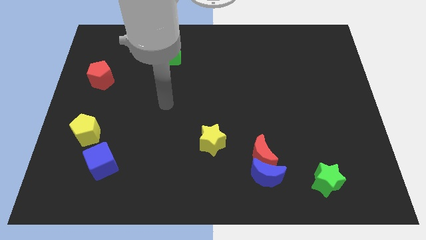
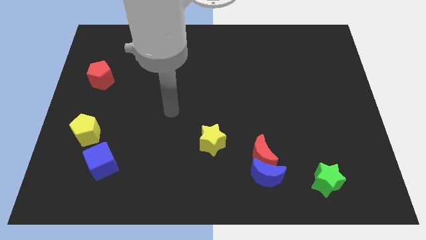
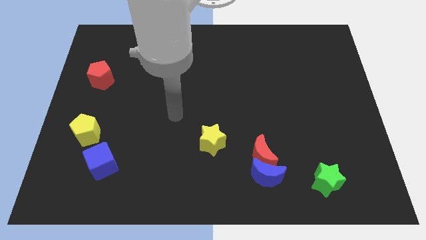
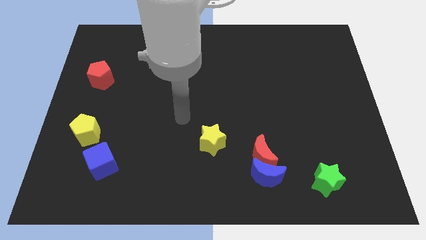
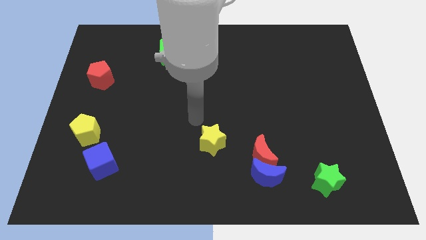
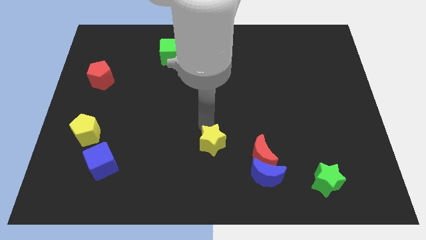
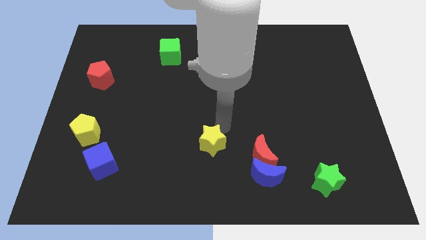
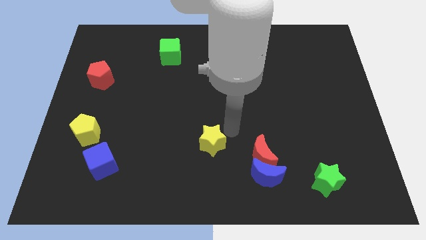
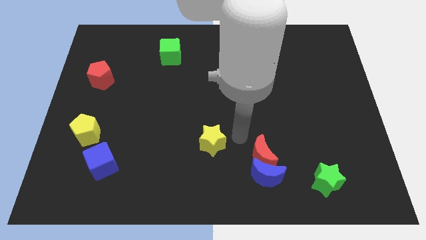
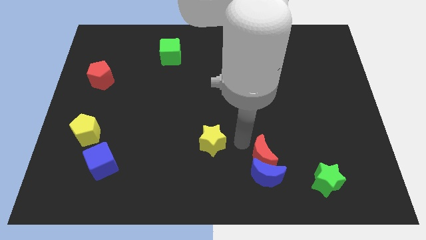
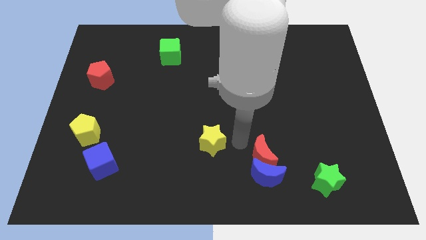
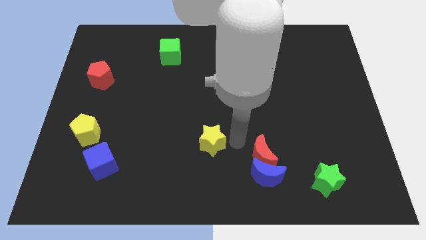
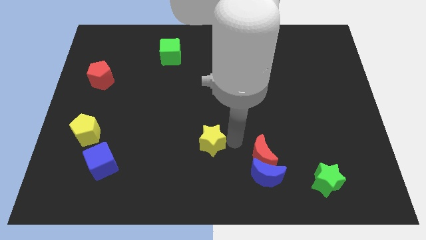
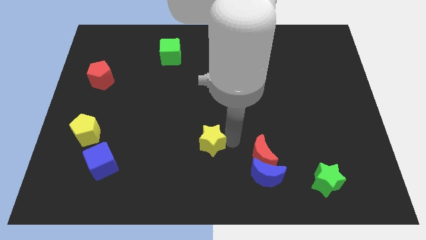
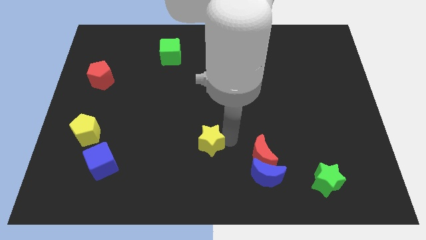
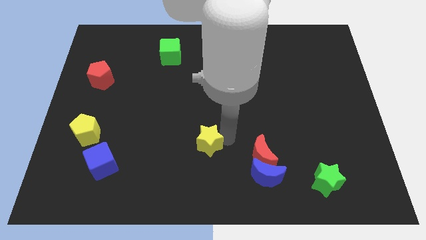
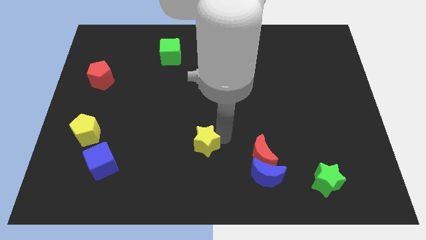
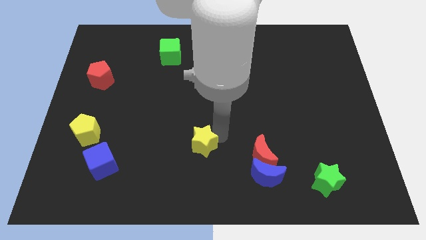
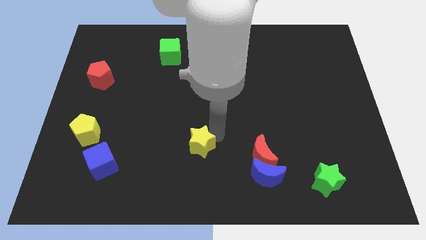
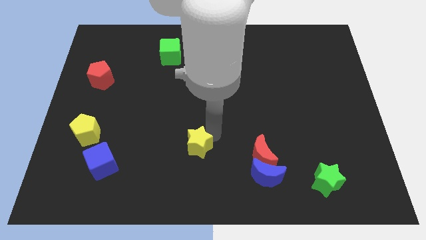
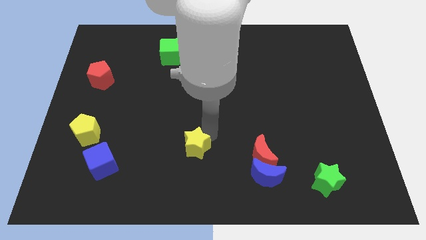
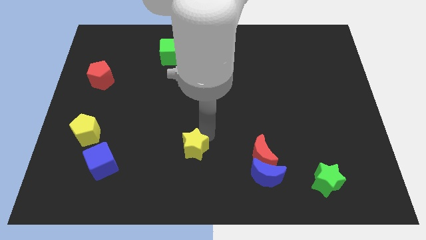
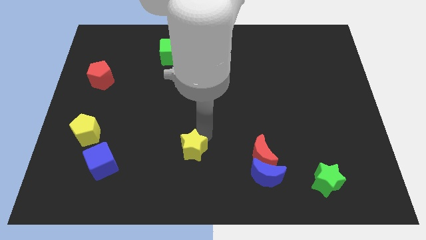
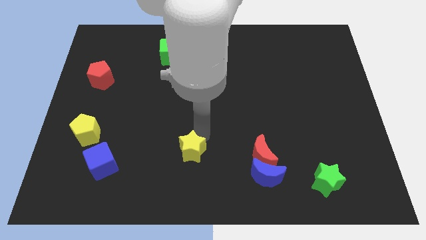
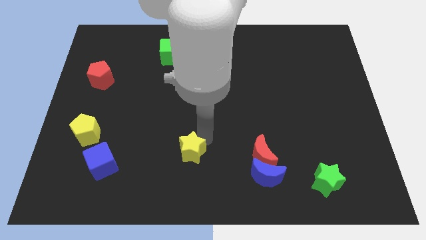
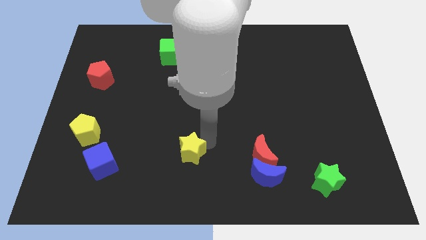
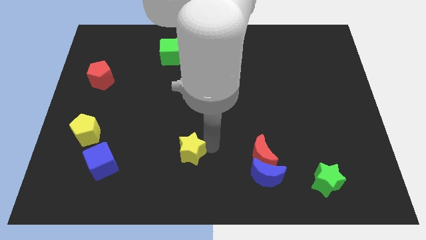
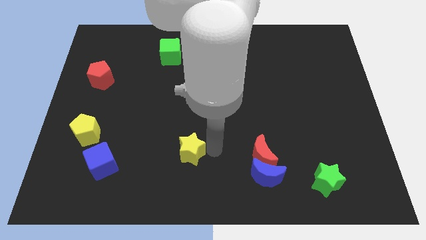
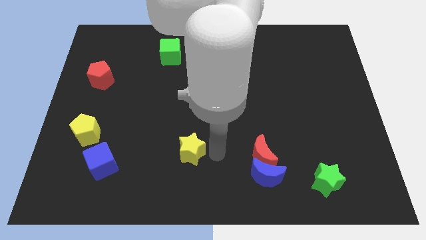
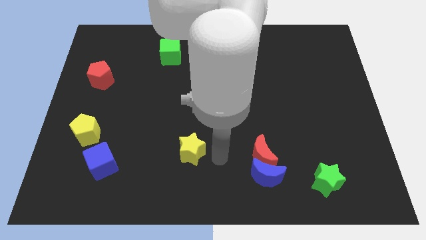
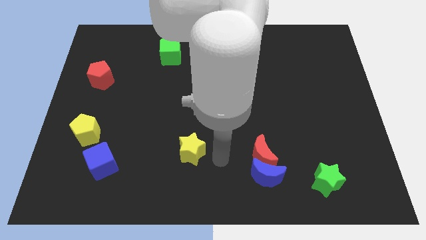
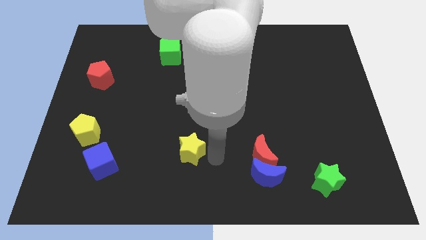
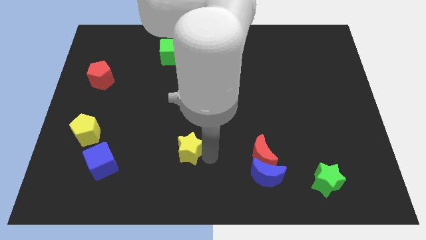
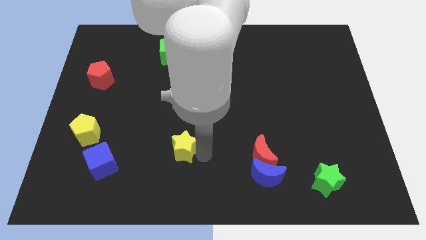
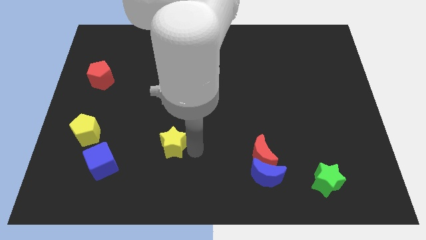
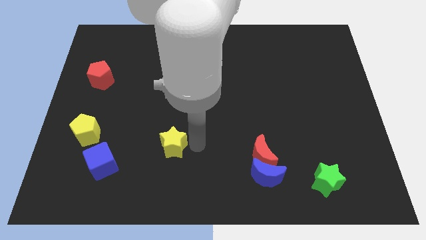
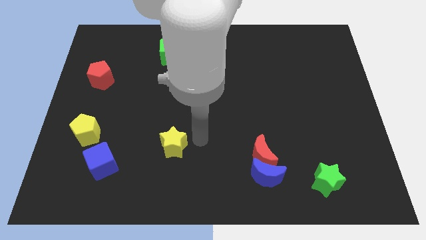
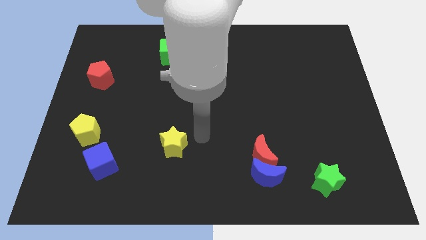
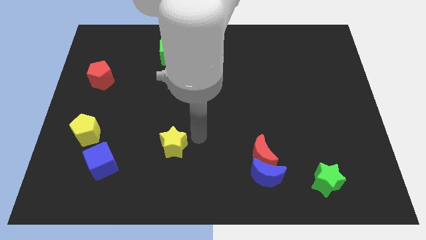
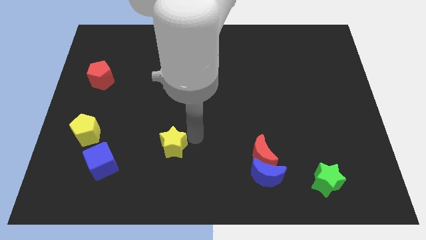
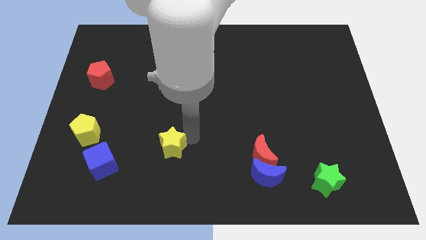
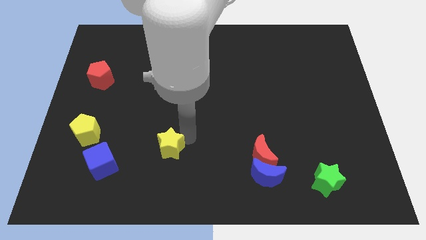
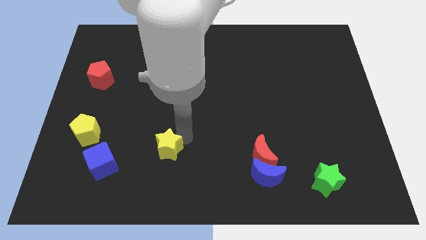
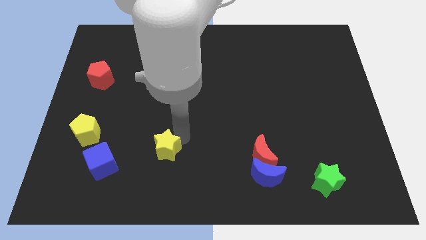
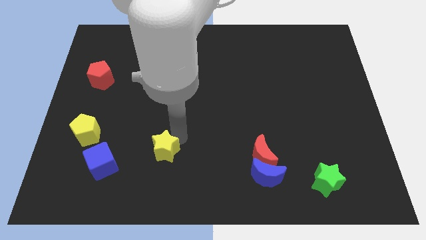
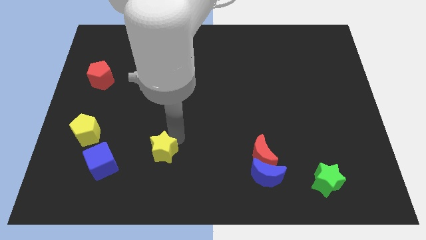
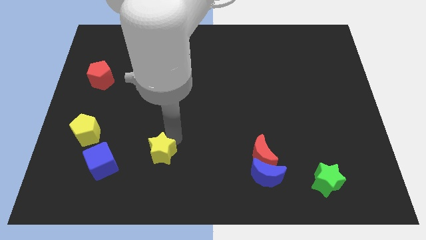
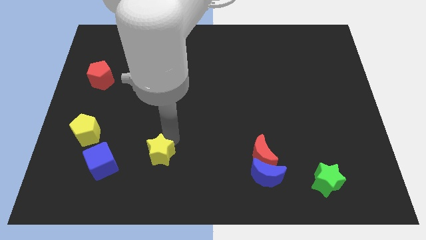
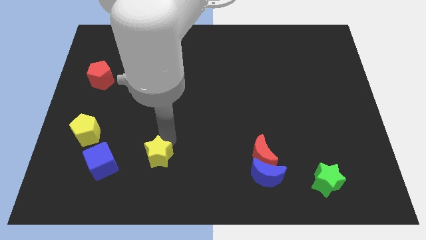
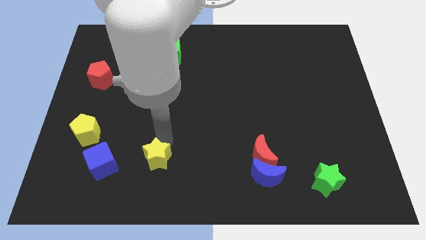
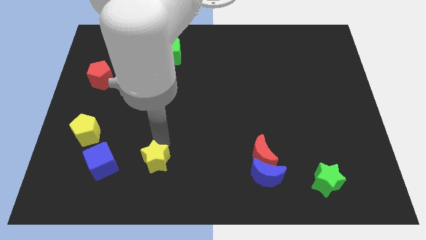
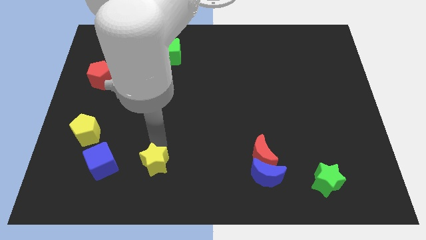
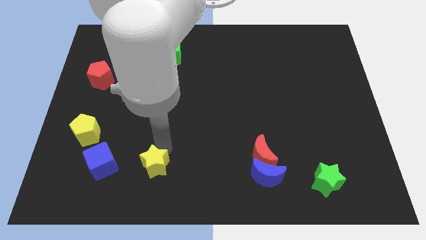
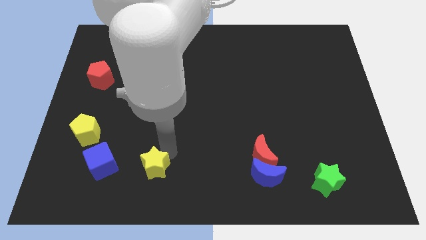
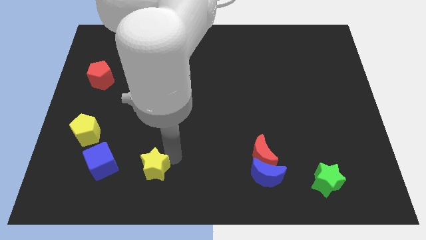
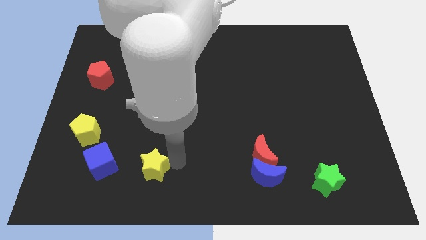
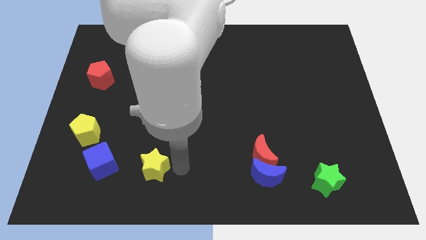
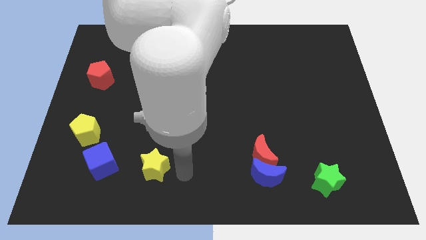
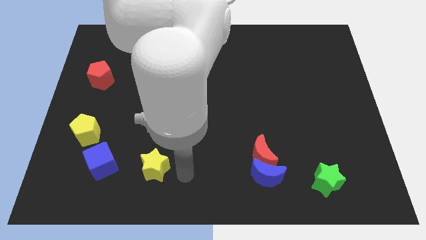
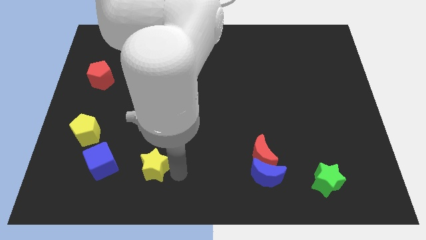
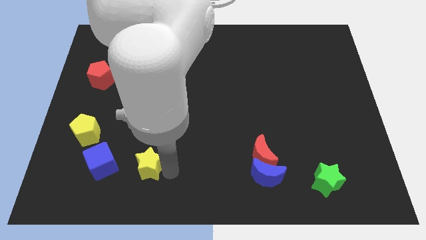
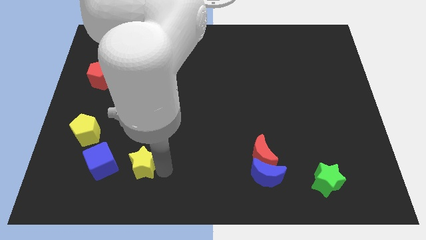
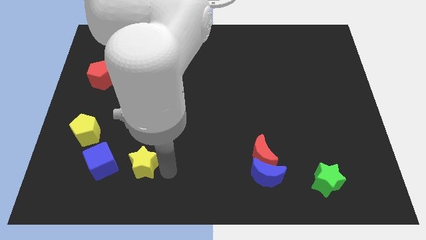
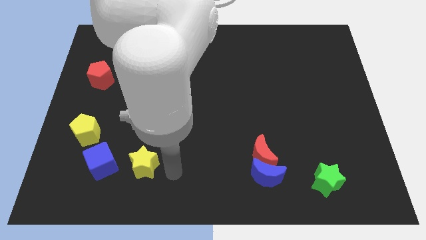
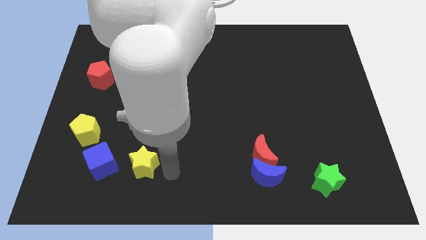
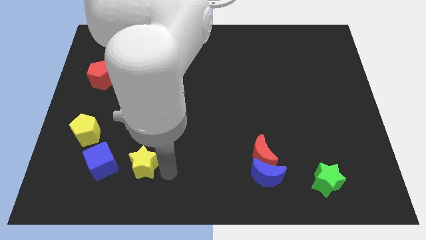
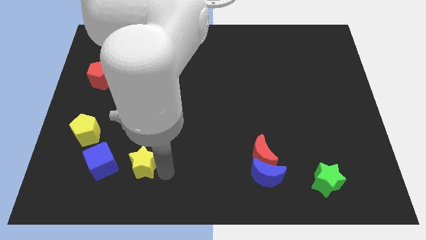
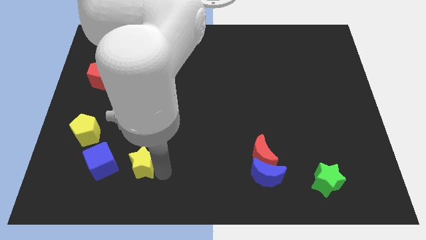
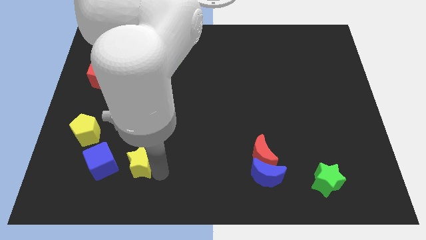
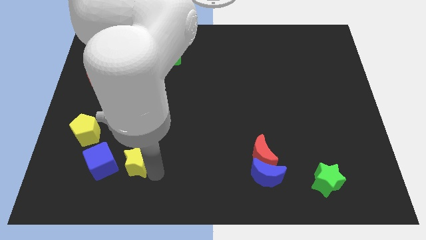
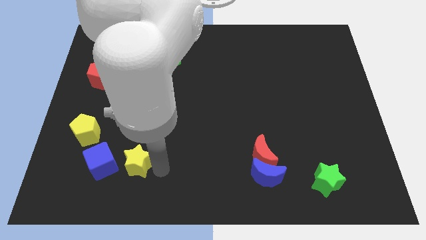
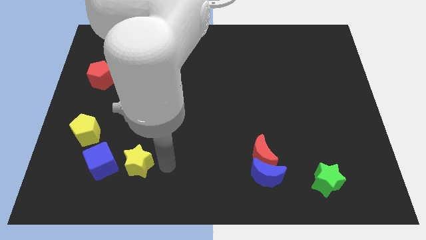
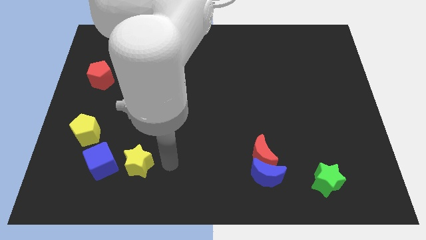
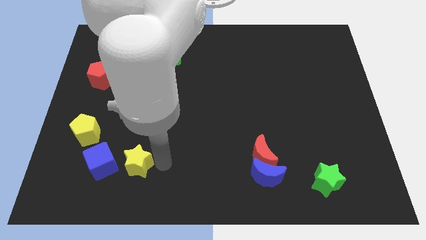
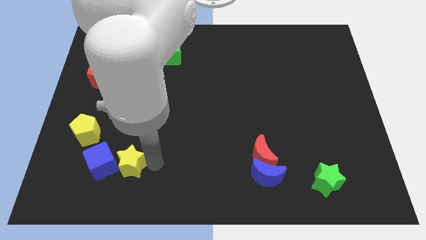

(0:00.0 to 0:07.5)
put the yellow star close to the blue cube
